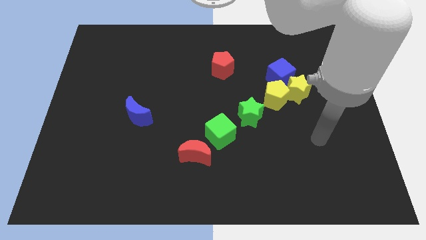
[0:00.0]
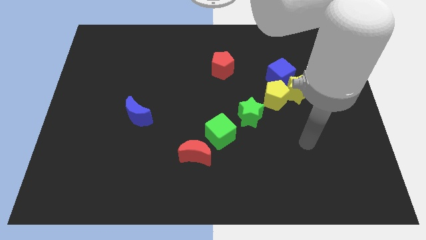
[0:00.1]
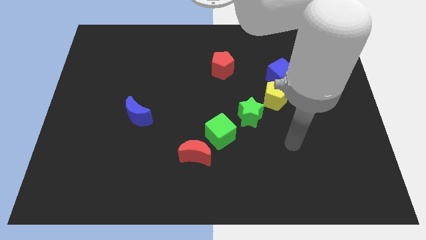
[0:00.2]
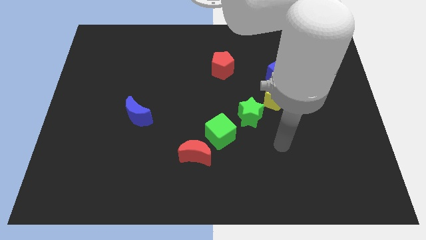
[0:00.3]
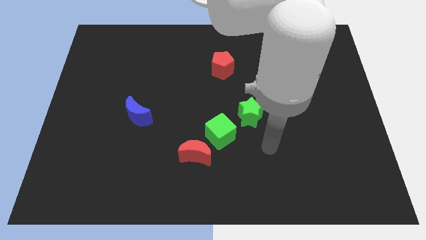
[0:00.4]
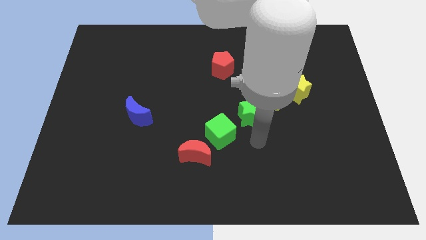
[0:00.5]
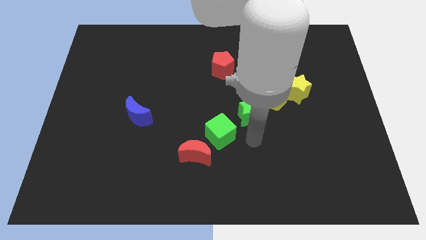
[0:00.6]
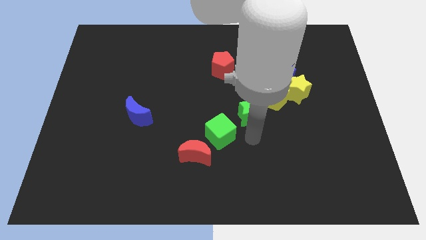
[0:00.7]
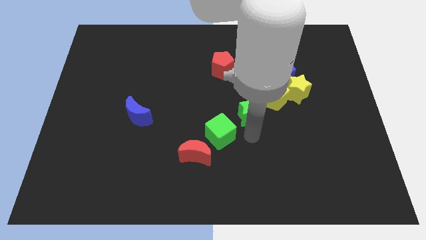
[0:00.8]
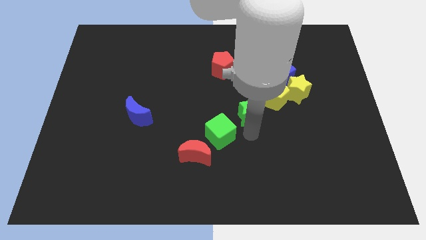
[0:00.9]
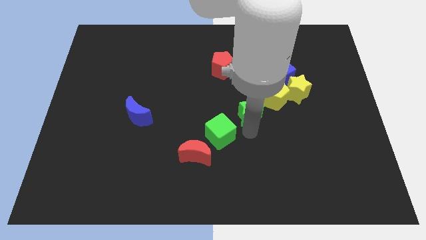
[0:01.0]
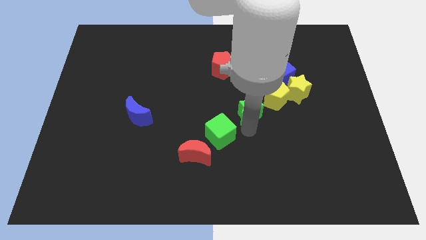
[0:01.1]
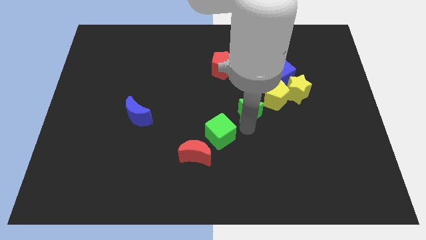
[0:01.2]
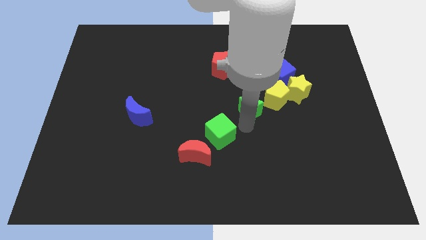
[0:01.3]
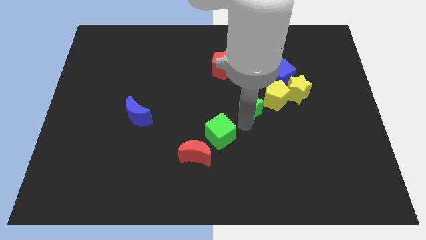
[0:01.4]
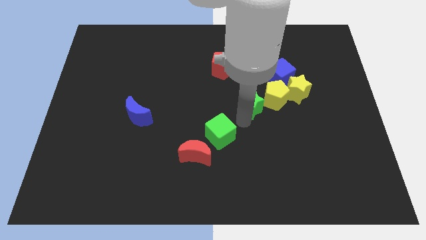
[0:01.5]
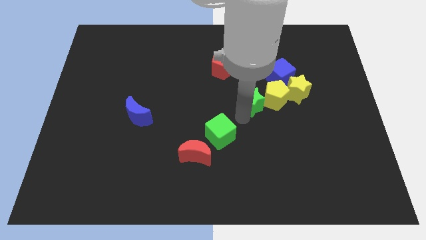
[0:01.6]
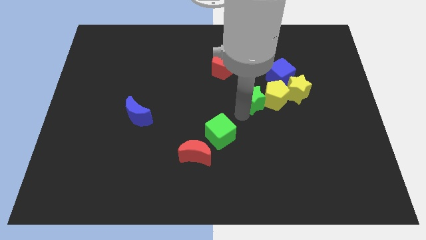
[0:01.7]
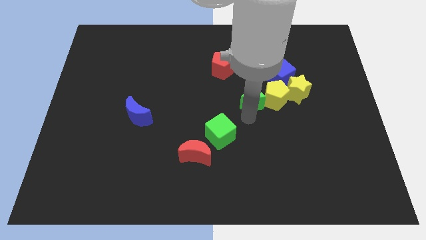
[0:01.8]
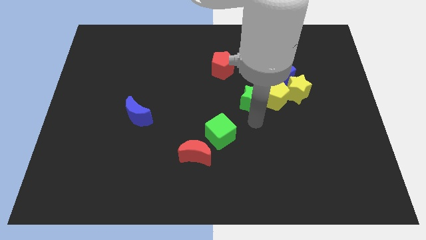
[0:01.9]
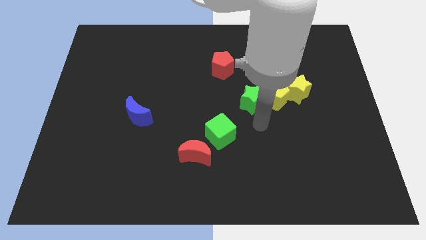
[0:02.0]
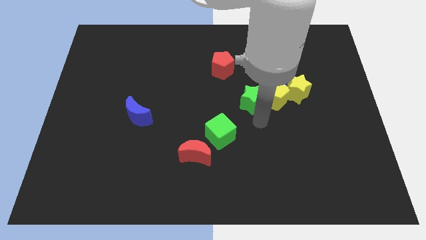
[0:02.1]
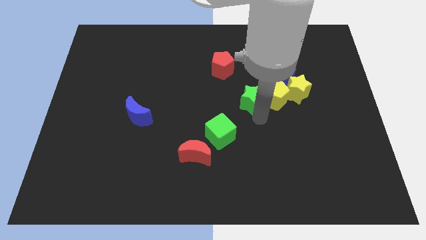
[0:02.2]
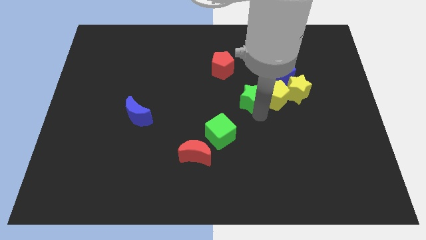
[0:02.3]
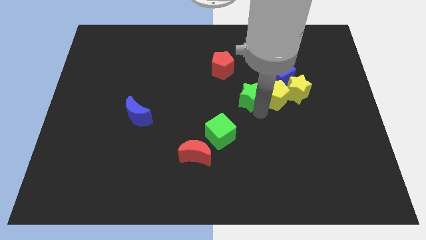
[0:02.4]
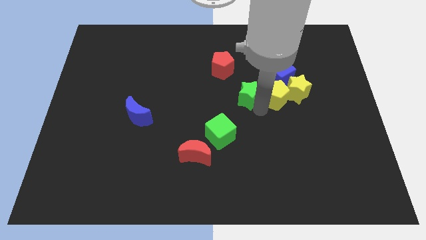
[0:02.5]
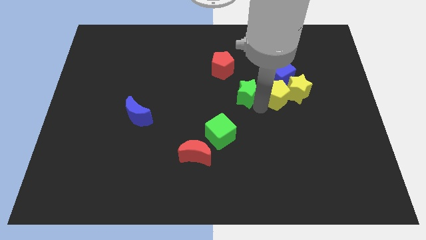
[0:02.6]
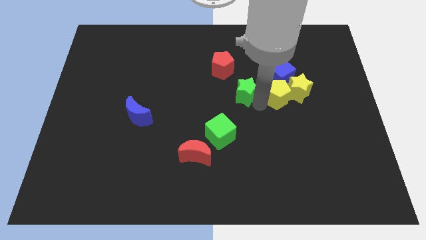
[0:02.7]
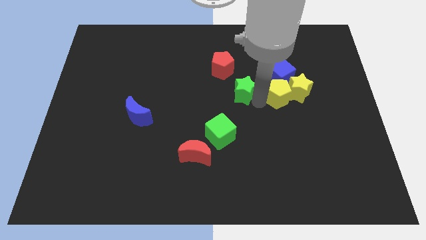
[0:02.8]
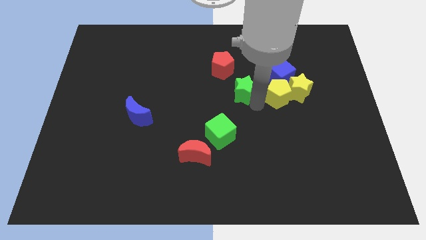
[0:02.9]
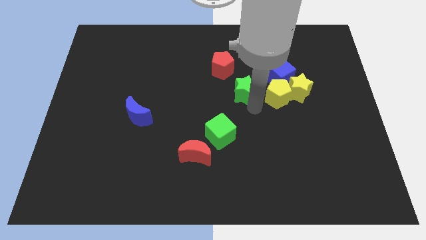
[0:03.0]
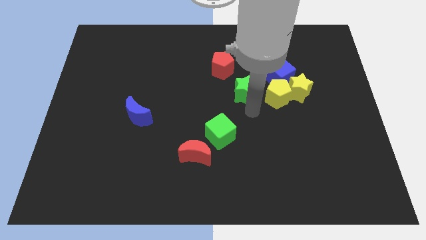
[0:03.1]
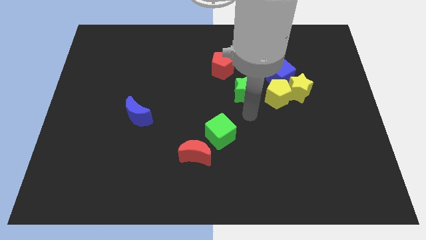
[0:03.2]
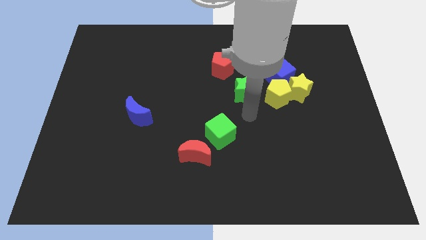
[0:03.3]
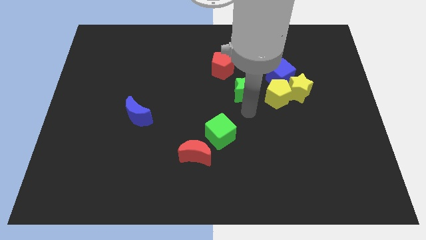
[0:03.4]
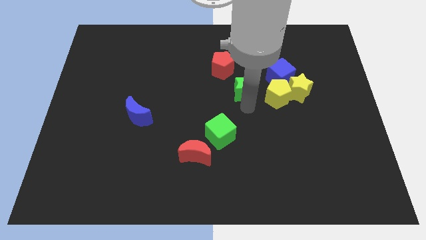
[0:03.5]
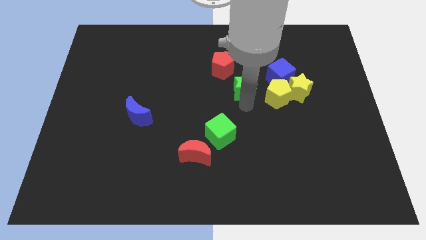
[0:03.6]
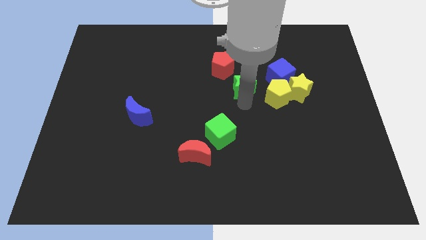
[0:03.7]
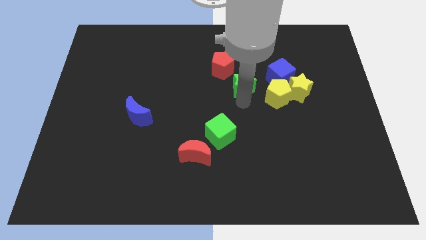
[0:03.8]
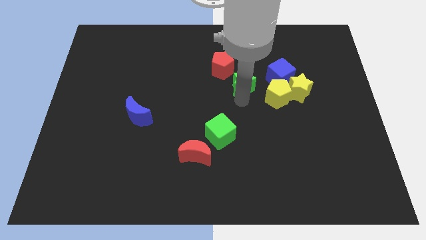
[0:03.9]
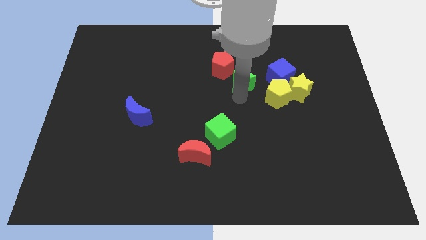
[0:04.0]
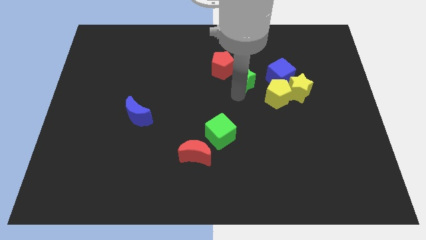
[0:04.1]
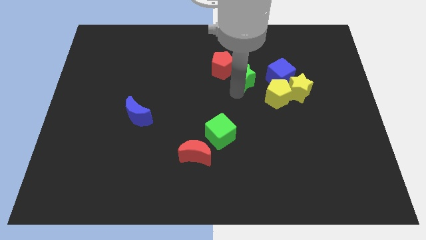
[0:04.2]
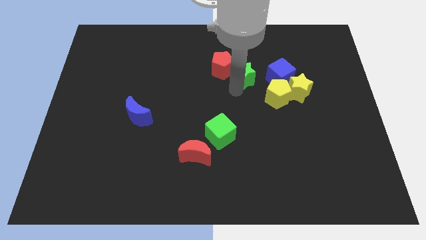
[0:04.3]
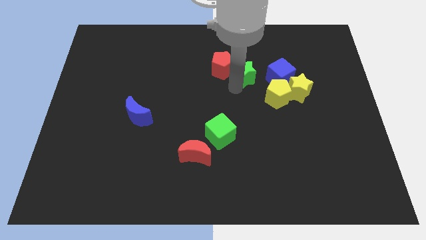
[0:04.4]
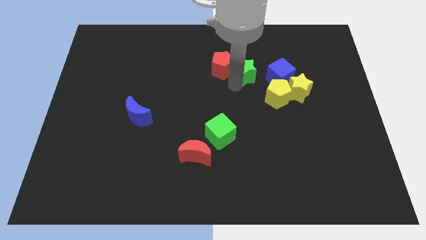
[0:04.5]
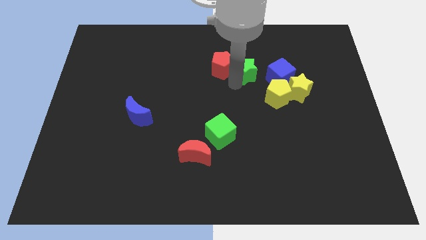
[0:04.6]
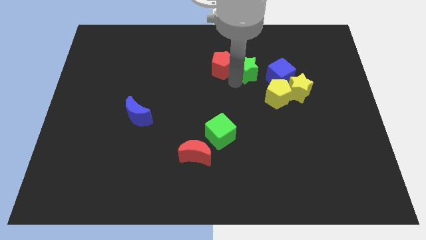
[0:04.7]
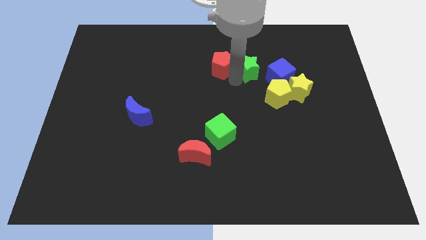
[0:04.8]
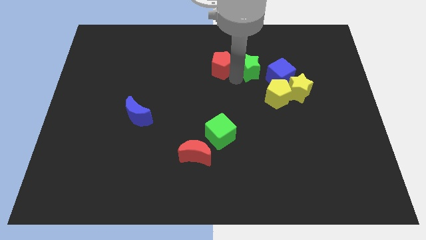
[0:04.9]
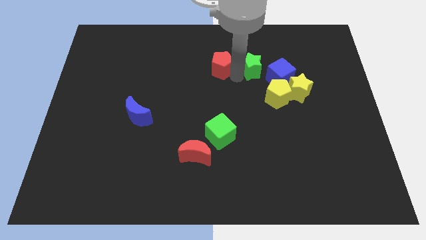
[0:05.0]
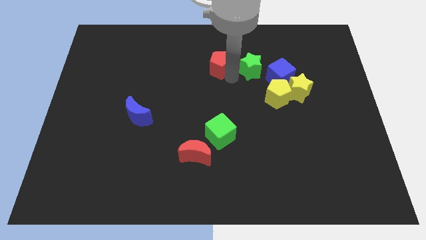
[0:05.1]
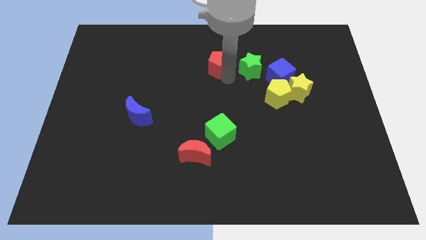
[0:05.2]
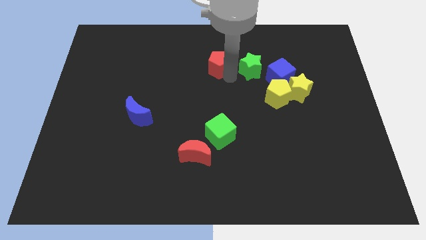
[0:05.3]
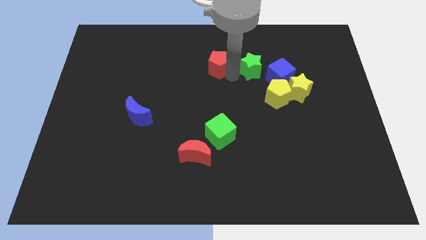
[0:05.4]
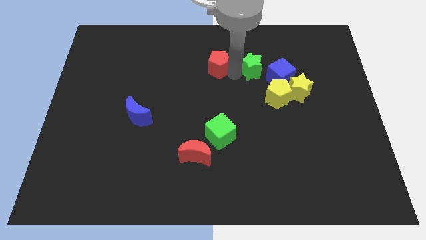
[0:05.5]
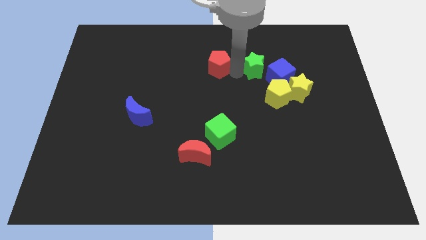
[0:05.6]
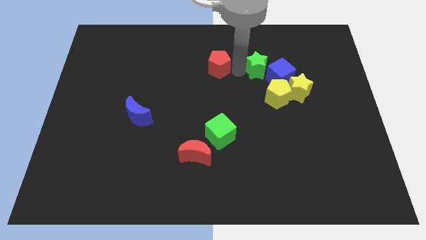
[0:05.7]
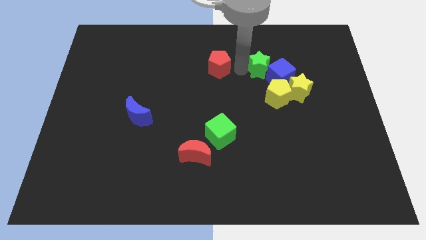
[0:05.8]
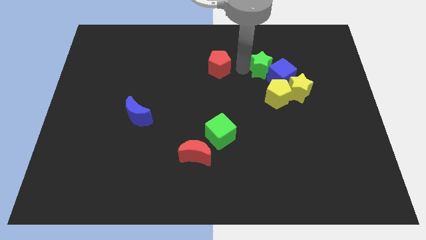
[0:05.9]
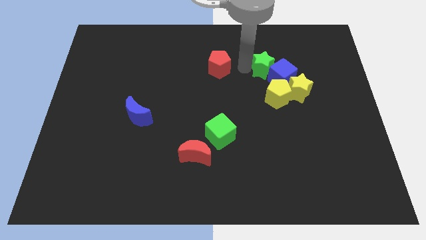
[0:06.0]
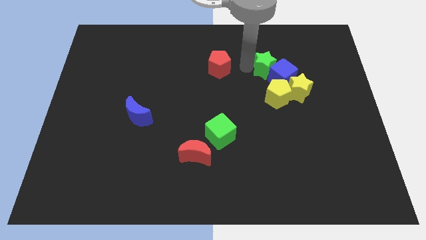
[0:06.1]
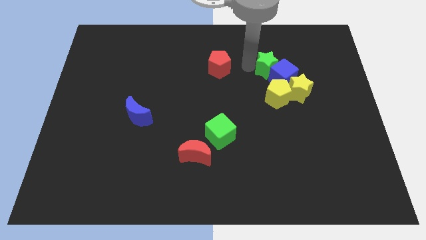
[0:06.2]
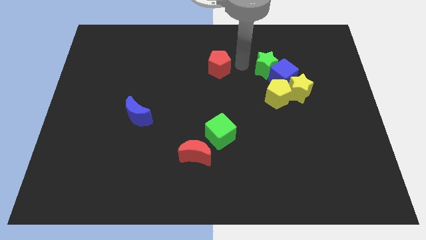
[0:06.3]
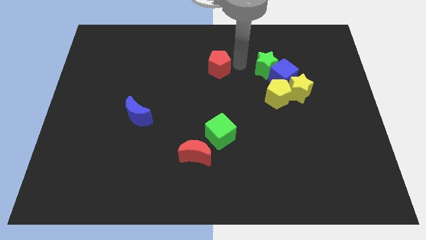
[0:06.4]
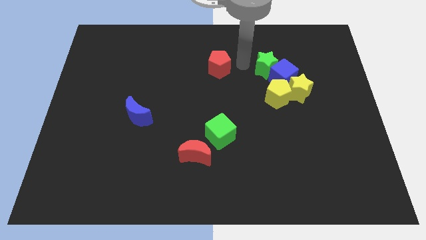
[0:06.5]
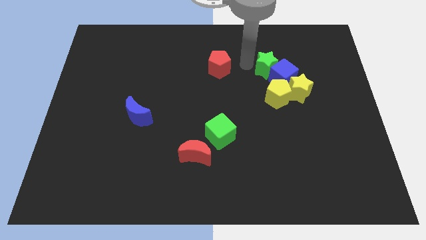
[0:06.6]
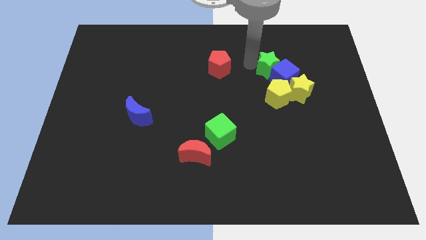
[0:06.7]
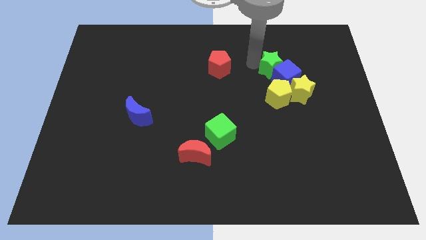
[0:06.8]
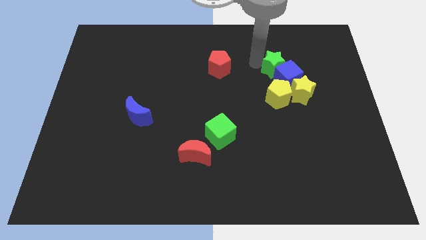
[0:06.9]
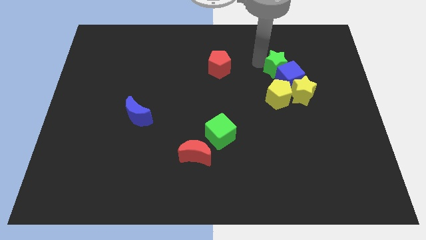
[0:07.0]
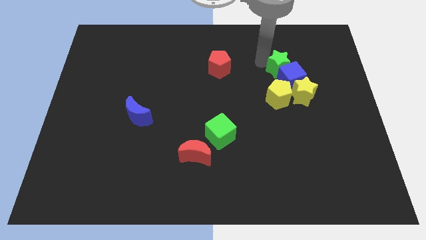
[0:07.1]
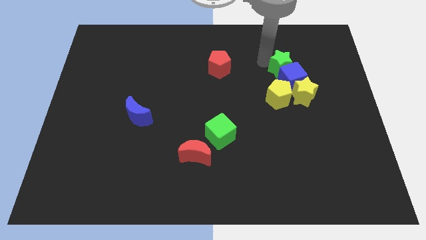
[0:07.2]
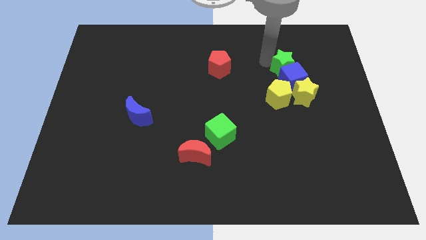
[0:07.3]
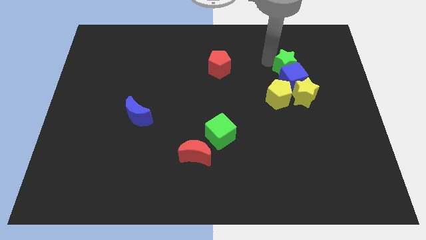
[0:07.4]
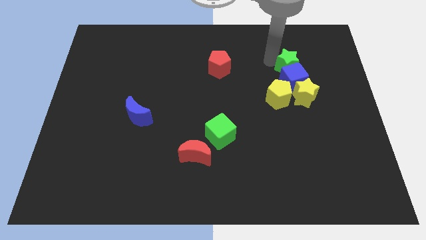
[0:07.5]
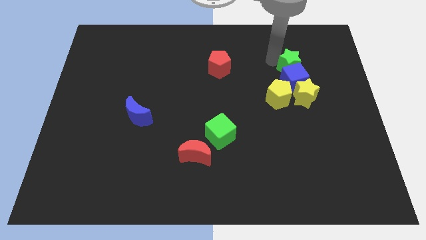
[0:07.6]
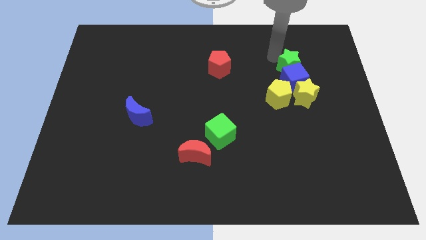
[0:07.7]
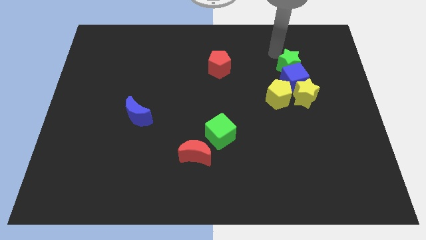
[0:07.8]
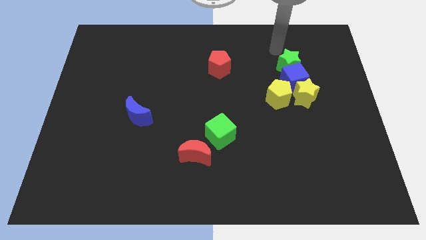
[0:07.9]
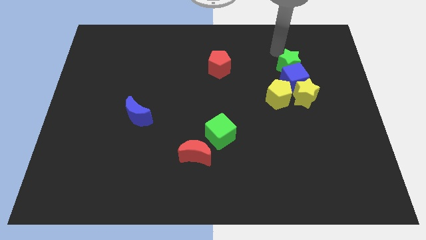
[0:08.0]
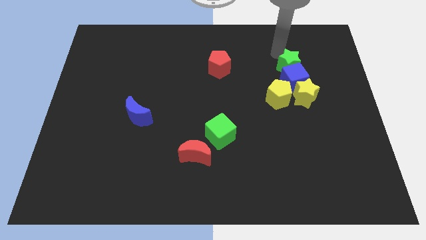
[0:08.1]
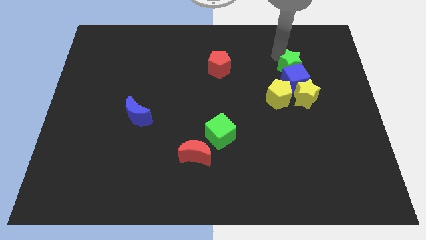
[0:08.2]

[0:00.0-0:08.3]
put the green star to the top right side of the yellow pentagon
